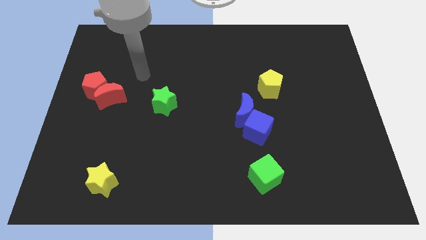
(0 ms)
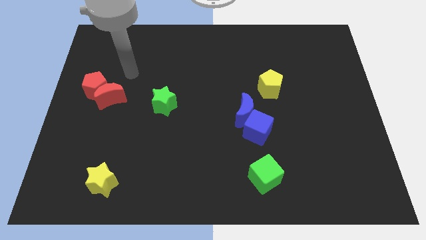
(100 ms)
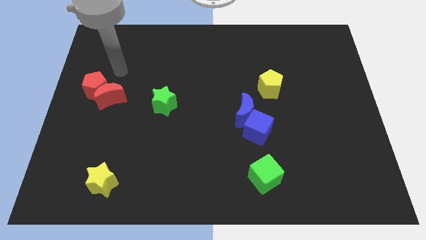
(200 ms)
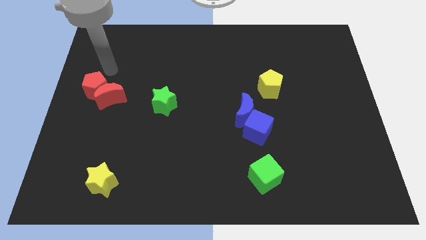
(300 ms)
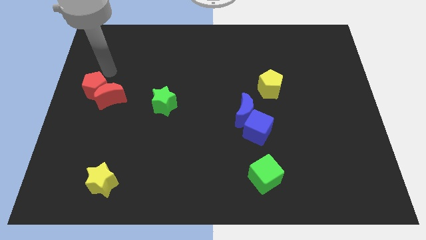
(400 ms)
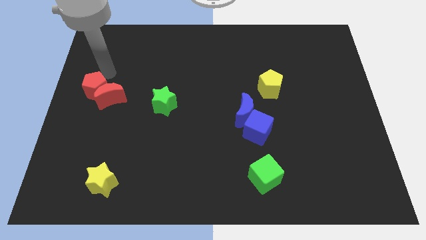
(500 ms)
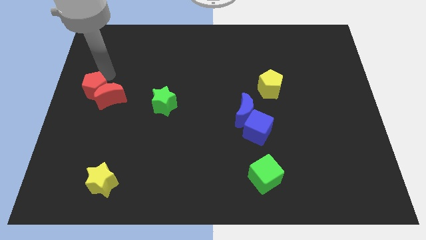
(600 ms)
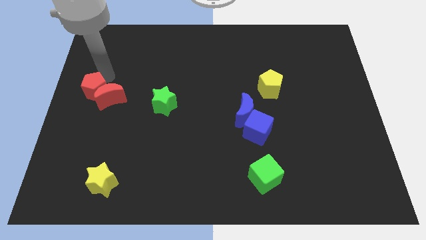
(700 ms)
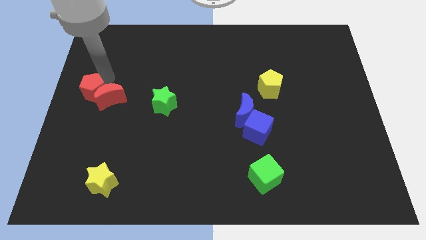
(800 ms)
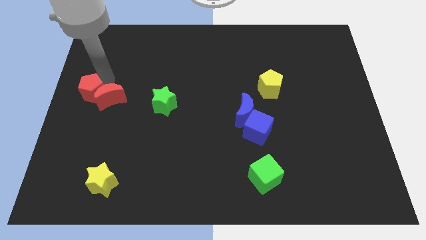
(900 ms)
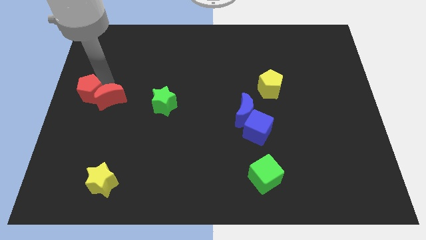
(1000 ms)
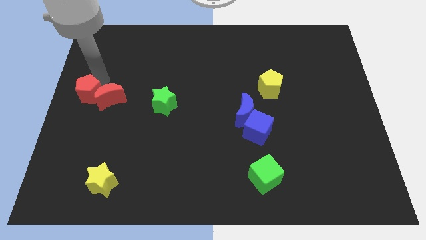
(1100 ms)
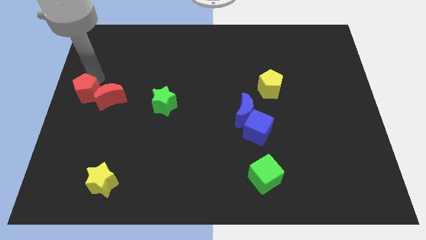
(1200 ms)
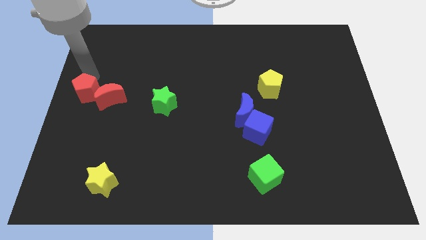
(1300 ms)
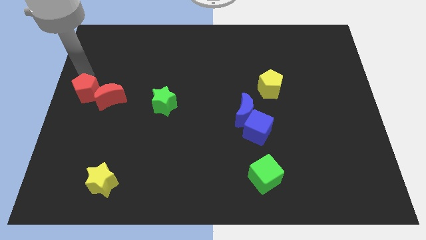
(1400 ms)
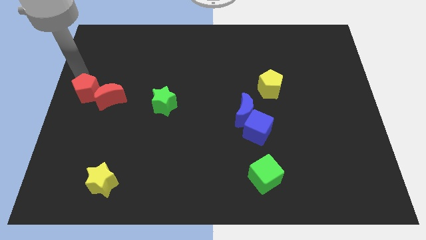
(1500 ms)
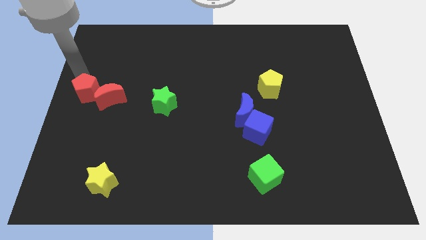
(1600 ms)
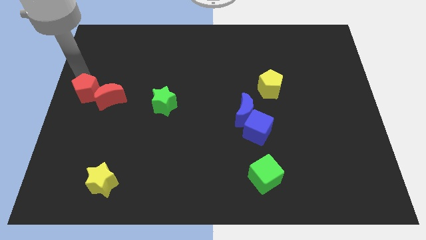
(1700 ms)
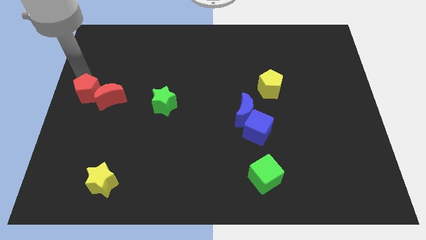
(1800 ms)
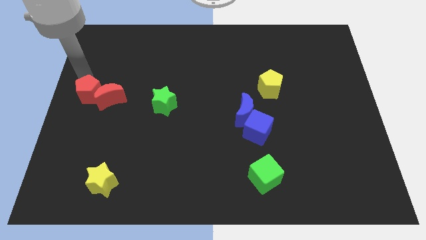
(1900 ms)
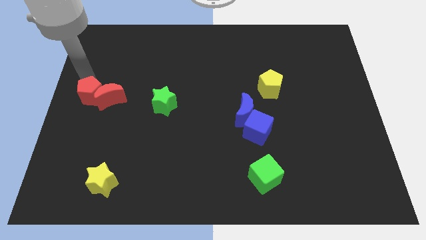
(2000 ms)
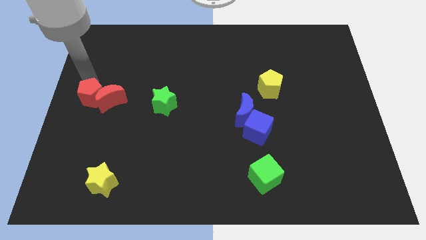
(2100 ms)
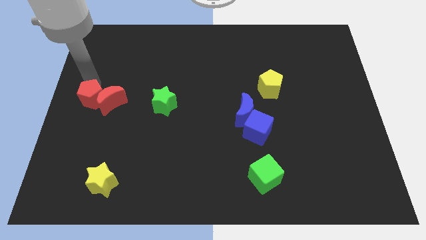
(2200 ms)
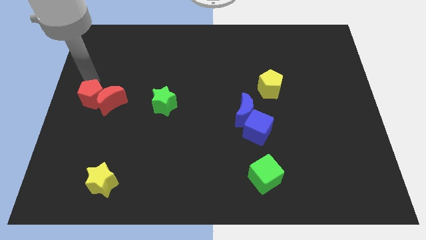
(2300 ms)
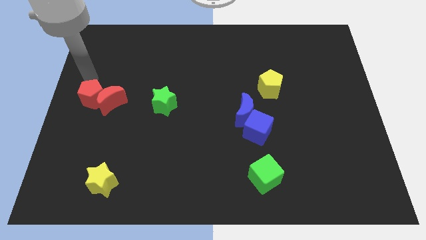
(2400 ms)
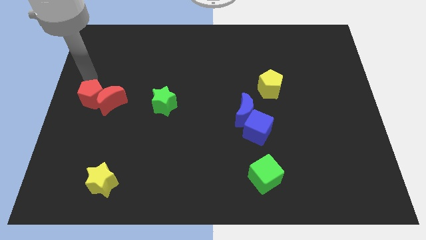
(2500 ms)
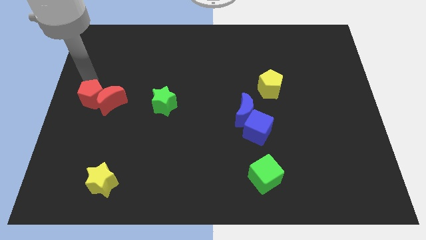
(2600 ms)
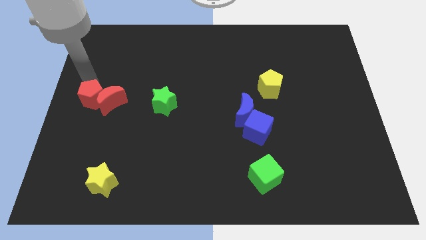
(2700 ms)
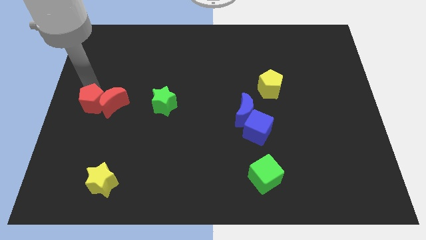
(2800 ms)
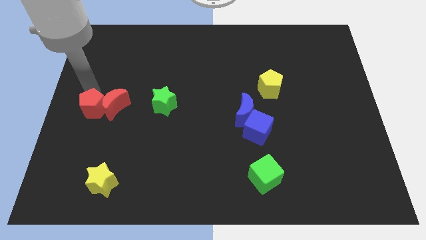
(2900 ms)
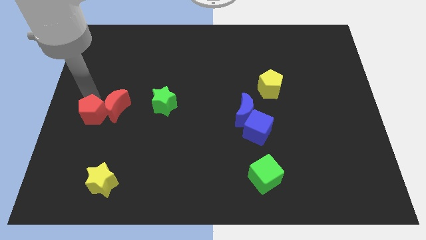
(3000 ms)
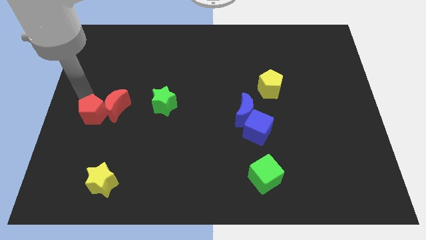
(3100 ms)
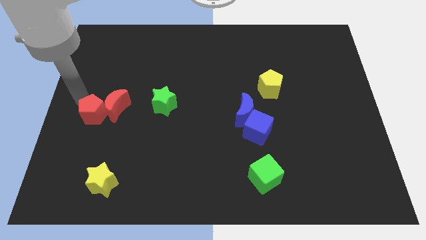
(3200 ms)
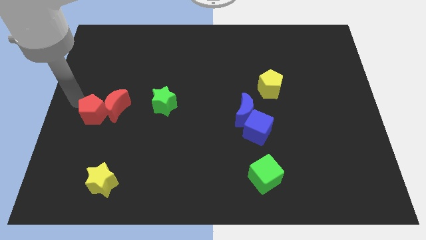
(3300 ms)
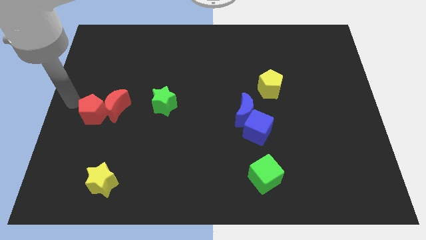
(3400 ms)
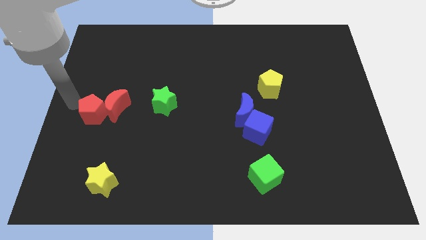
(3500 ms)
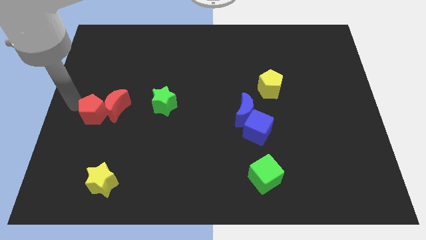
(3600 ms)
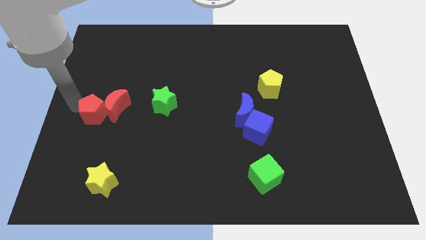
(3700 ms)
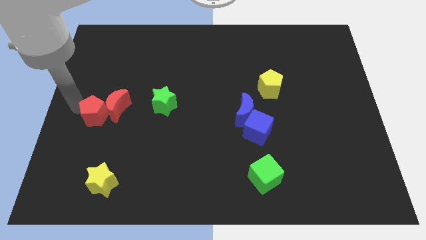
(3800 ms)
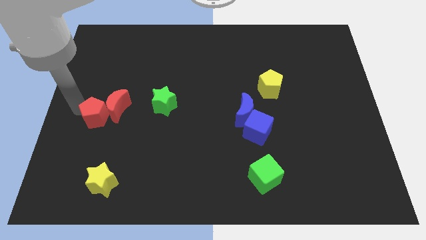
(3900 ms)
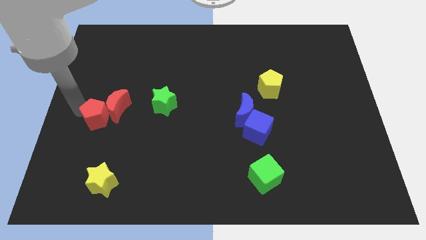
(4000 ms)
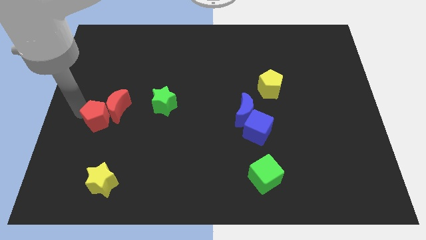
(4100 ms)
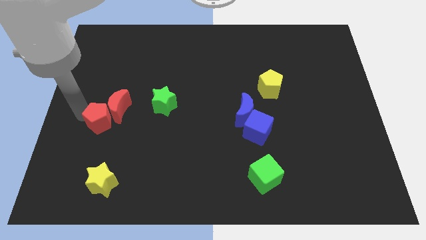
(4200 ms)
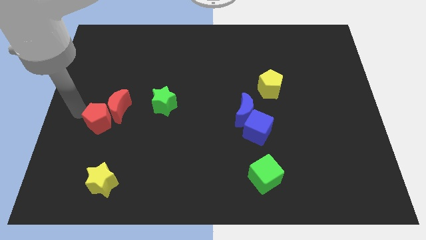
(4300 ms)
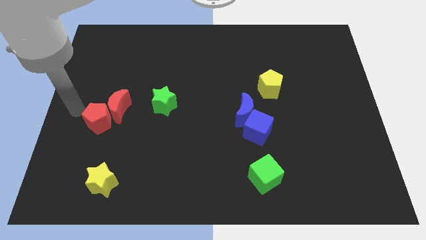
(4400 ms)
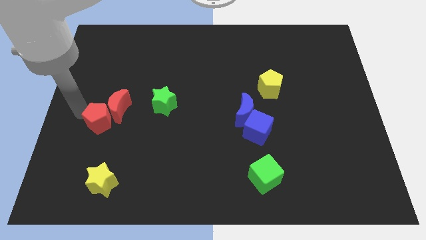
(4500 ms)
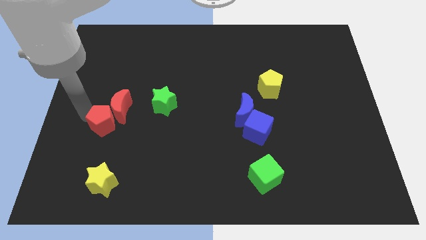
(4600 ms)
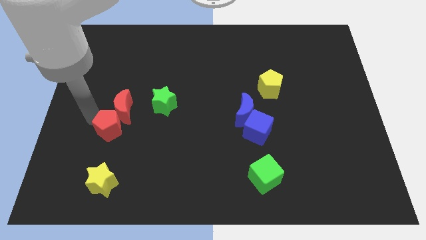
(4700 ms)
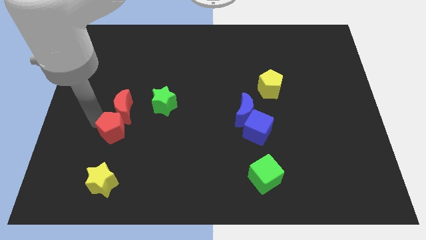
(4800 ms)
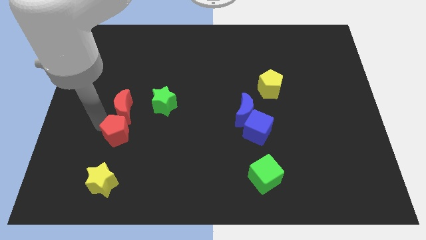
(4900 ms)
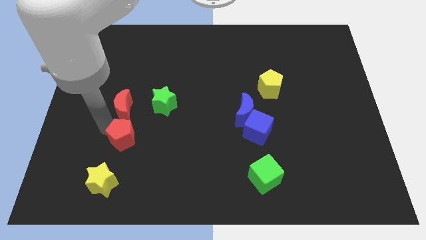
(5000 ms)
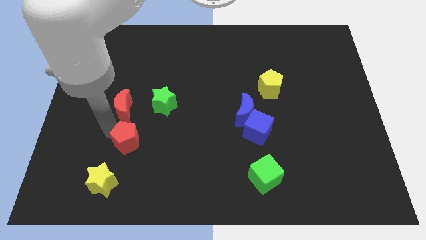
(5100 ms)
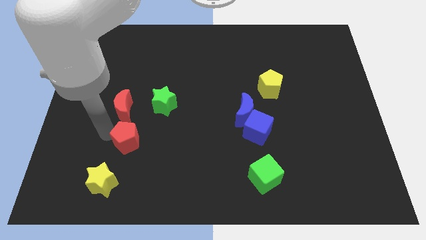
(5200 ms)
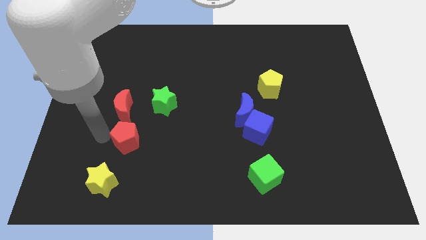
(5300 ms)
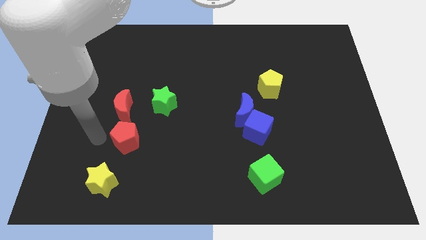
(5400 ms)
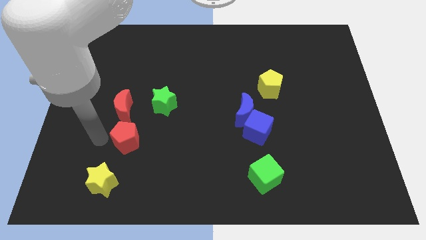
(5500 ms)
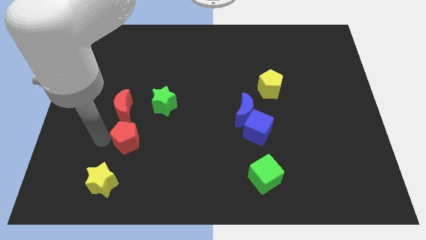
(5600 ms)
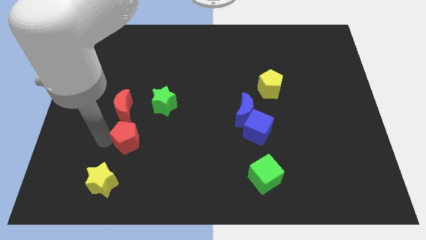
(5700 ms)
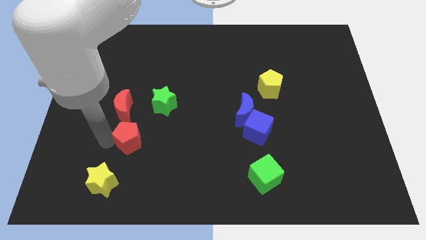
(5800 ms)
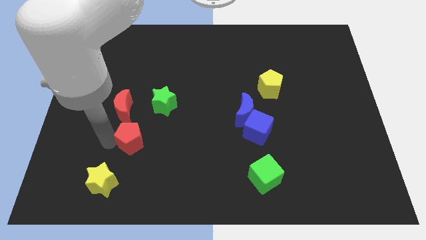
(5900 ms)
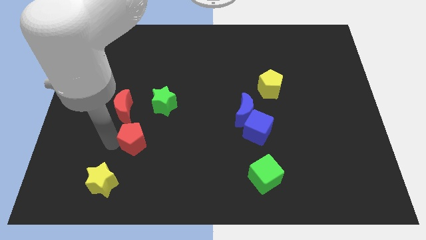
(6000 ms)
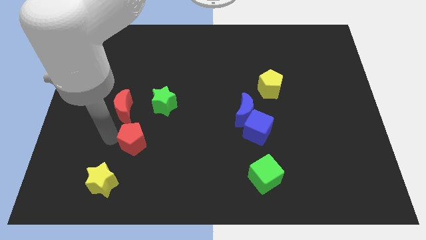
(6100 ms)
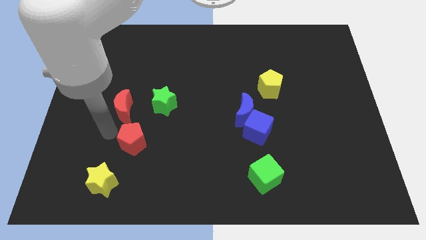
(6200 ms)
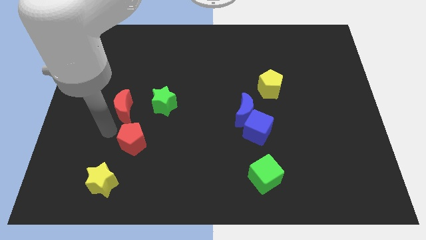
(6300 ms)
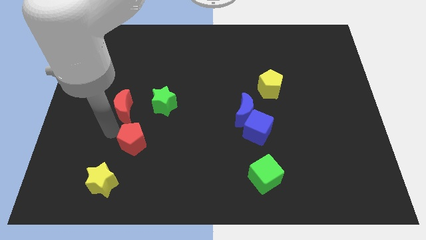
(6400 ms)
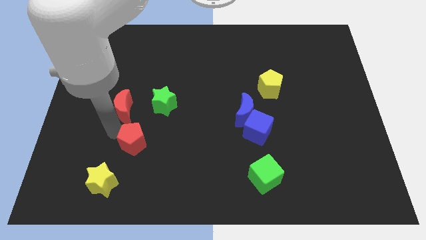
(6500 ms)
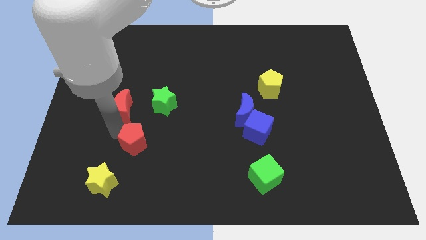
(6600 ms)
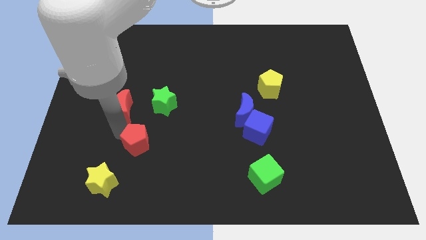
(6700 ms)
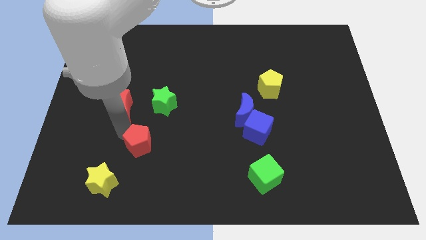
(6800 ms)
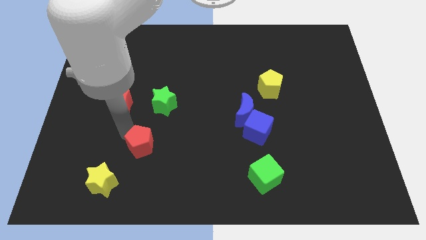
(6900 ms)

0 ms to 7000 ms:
slide the red pentagon downwards and right diagonally

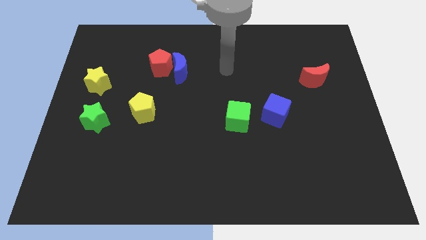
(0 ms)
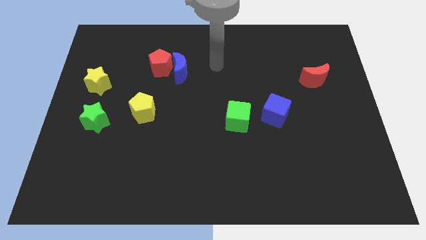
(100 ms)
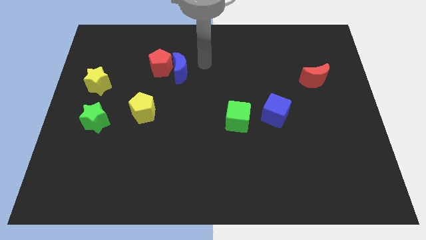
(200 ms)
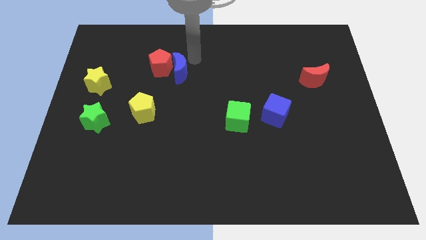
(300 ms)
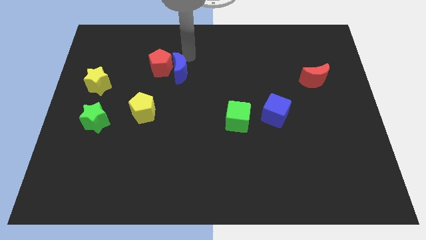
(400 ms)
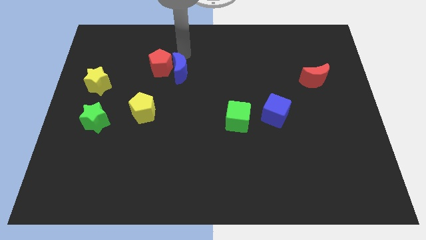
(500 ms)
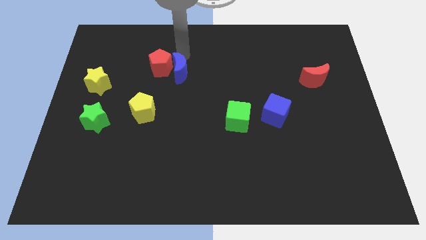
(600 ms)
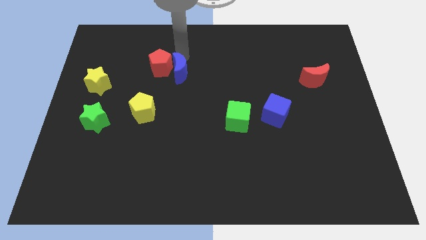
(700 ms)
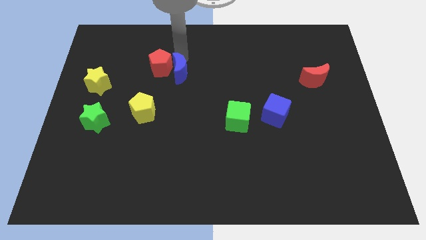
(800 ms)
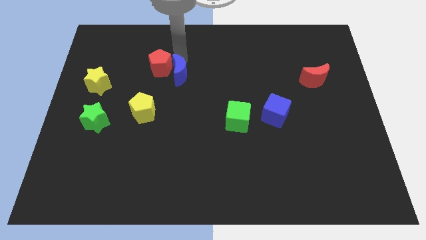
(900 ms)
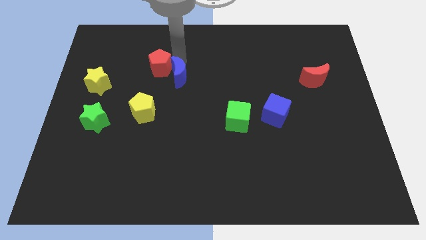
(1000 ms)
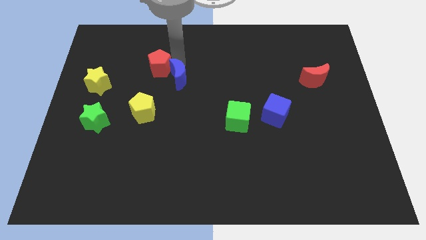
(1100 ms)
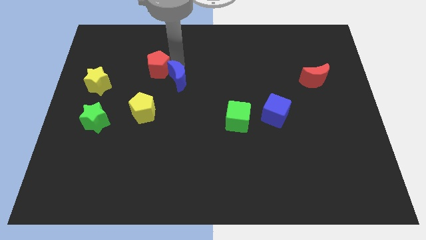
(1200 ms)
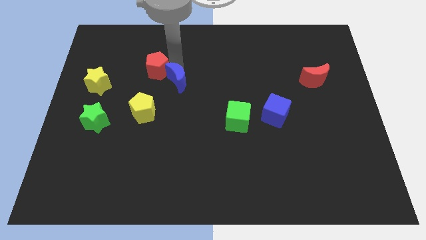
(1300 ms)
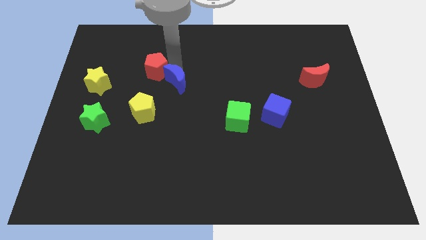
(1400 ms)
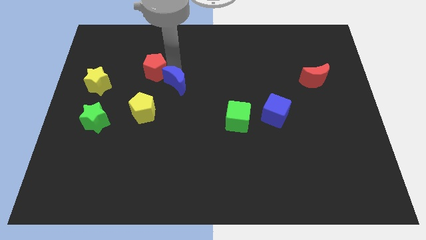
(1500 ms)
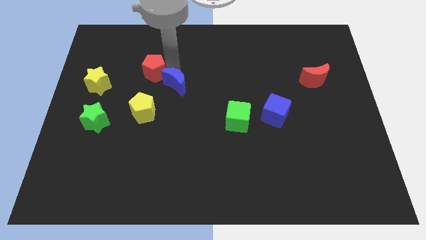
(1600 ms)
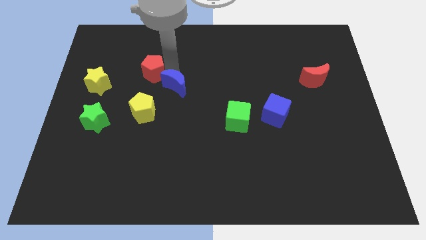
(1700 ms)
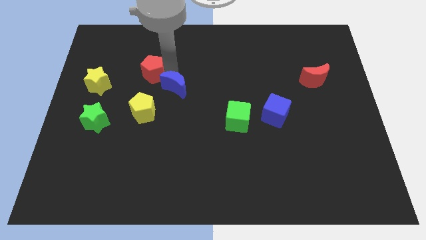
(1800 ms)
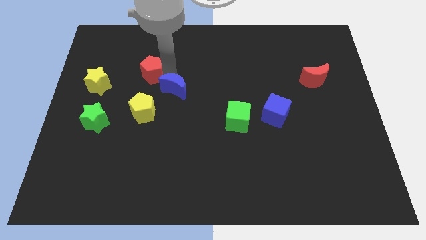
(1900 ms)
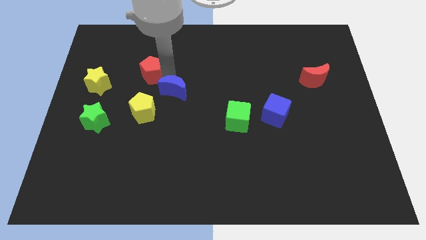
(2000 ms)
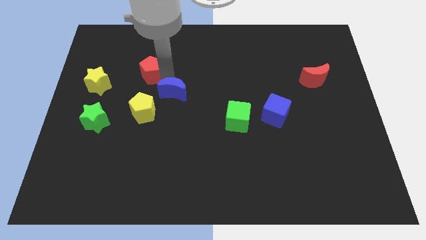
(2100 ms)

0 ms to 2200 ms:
push the blue moon a little down
